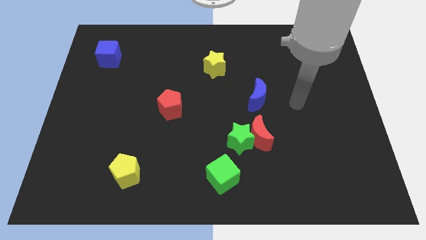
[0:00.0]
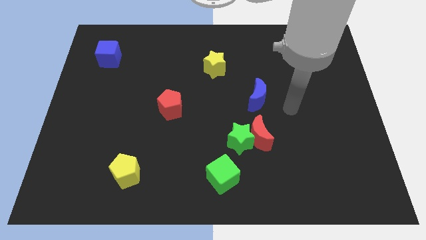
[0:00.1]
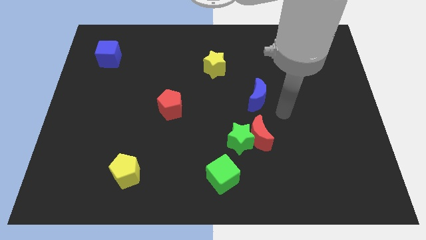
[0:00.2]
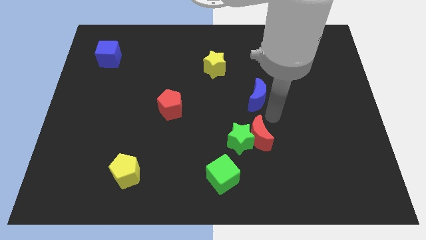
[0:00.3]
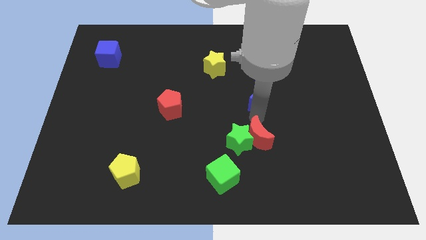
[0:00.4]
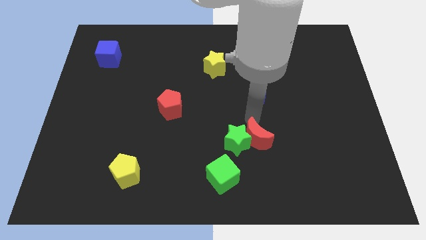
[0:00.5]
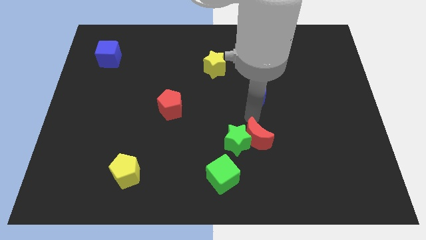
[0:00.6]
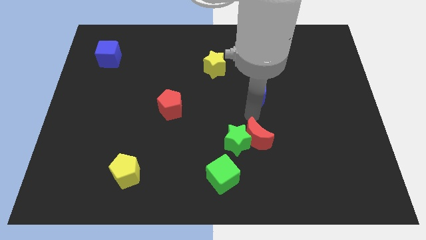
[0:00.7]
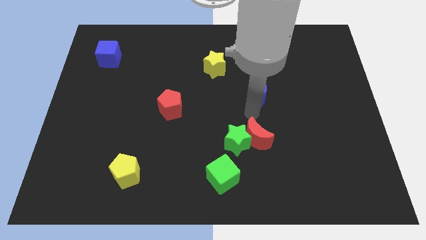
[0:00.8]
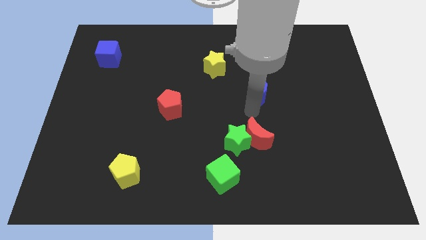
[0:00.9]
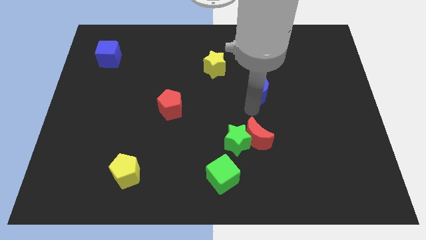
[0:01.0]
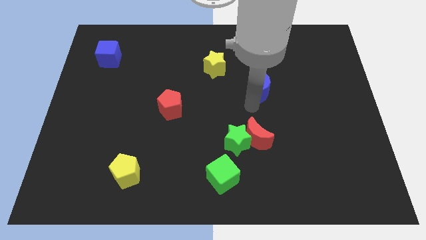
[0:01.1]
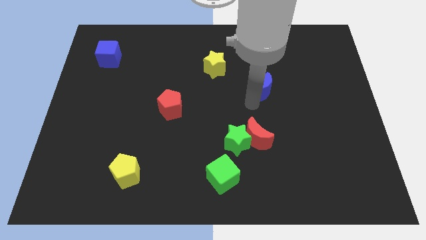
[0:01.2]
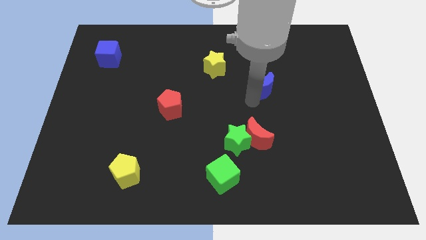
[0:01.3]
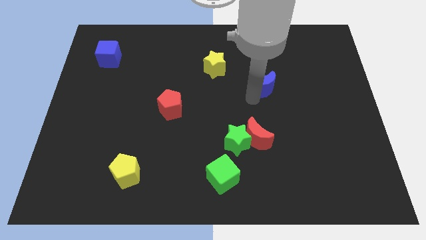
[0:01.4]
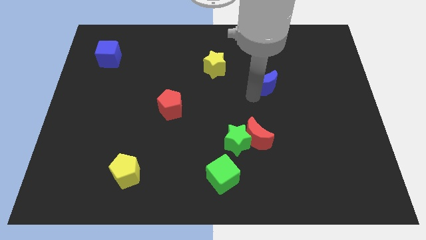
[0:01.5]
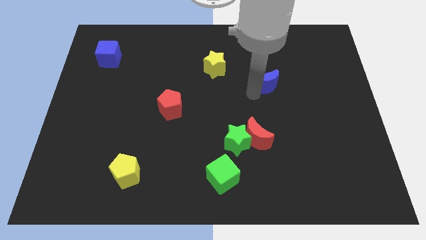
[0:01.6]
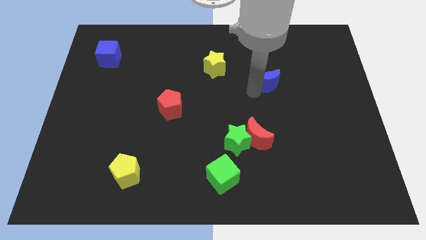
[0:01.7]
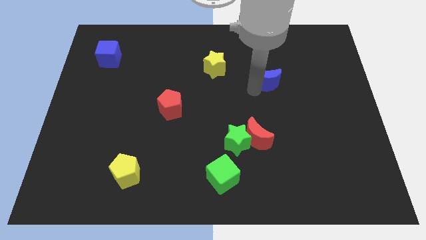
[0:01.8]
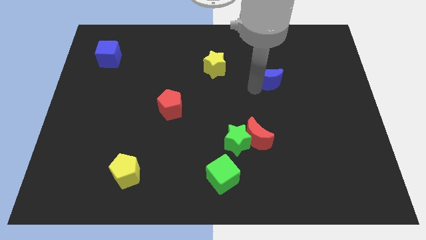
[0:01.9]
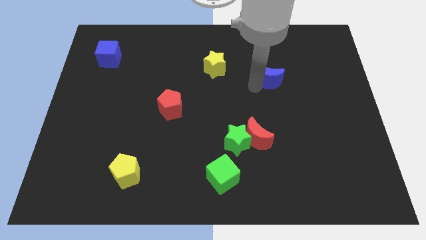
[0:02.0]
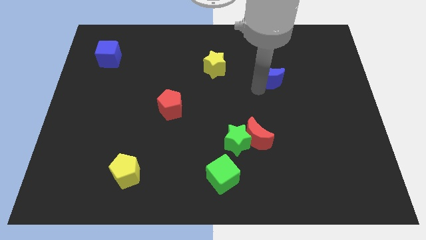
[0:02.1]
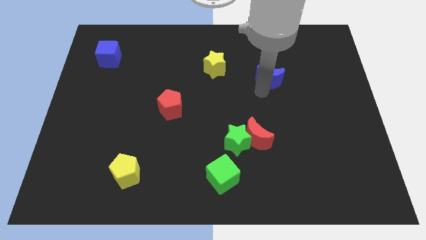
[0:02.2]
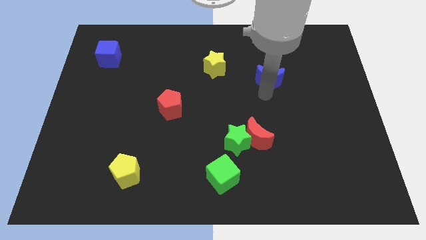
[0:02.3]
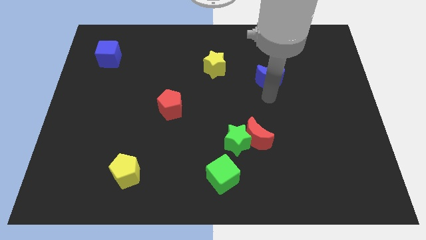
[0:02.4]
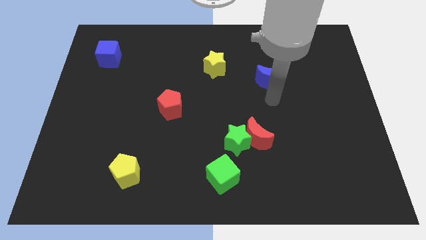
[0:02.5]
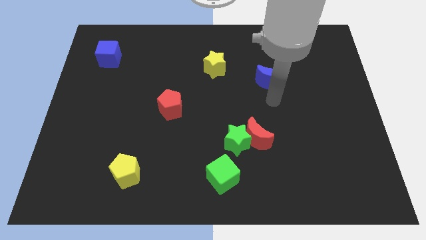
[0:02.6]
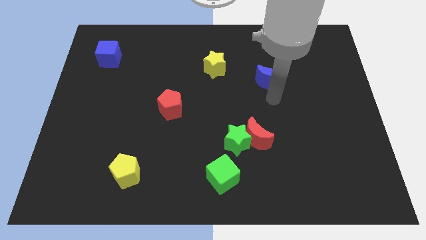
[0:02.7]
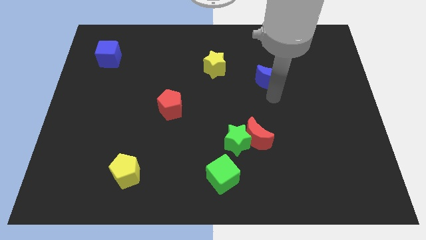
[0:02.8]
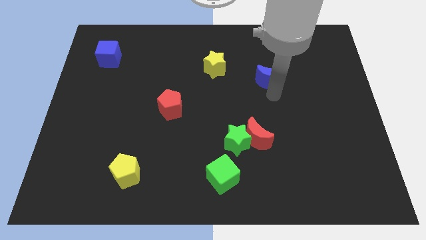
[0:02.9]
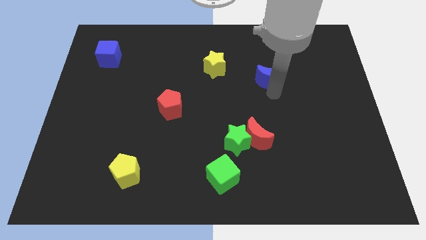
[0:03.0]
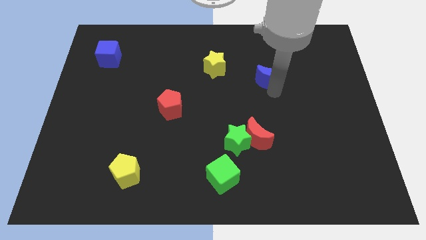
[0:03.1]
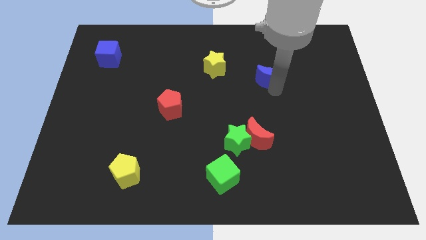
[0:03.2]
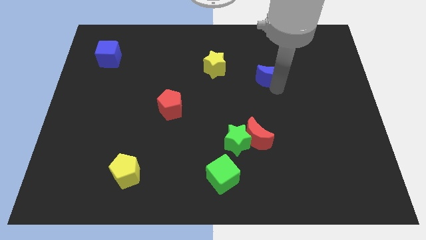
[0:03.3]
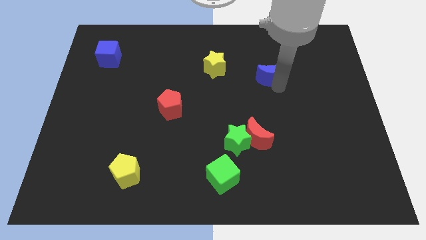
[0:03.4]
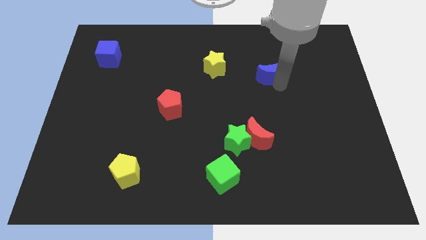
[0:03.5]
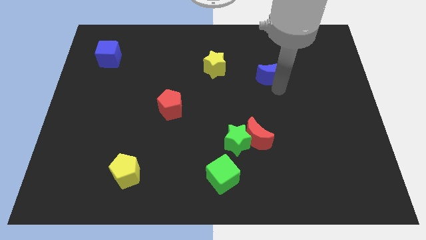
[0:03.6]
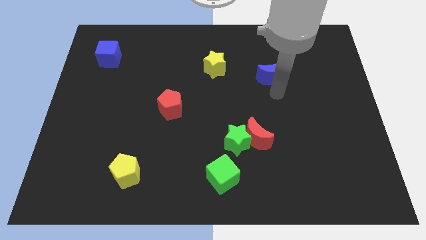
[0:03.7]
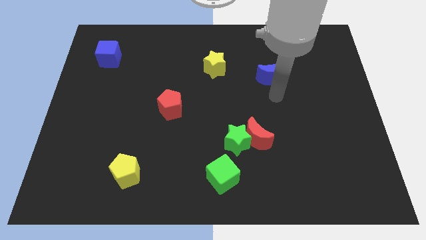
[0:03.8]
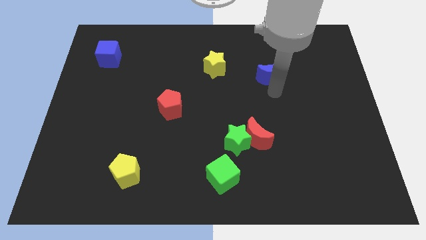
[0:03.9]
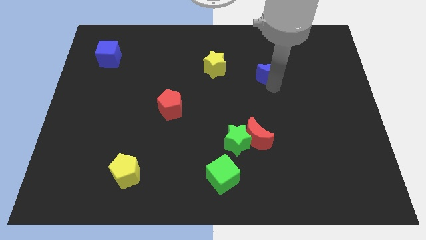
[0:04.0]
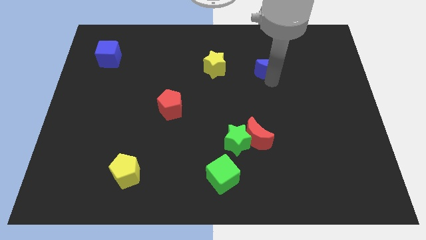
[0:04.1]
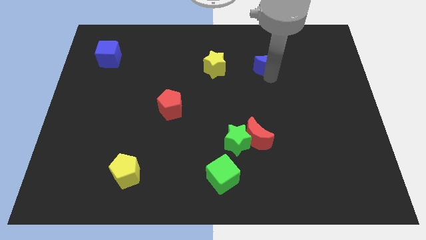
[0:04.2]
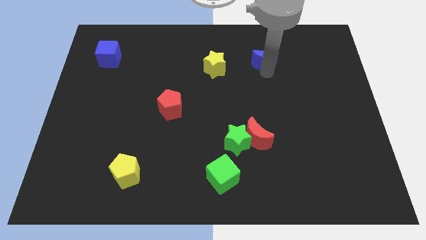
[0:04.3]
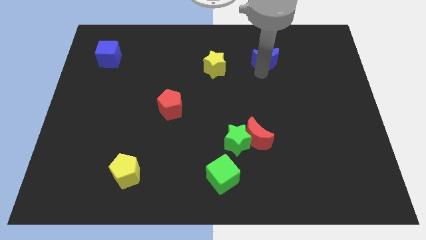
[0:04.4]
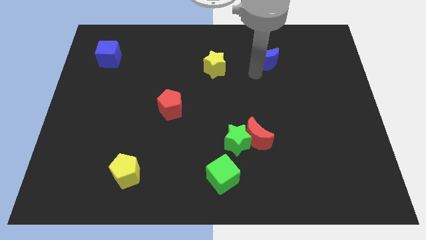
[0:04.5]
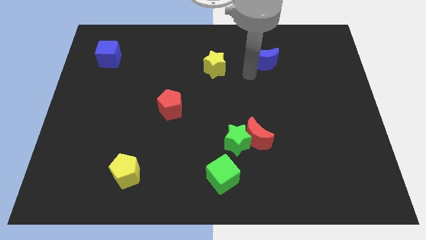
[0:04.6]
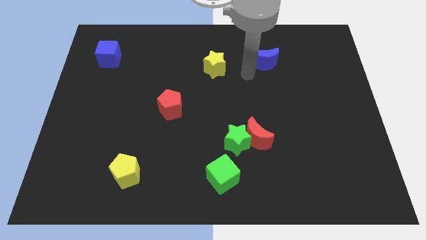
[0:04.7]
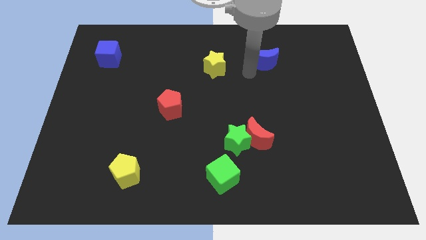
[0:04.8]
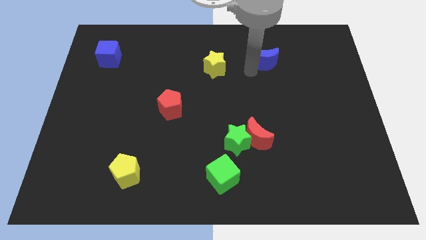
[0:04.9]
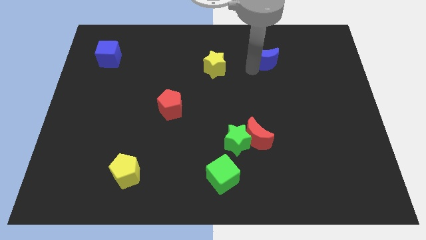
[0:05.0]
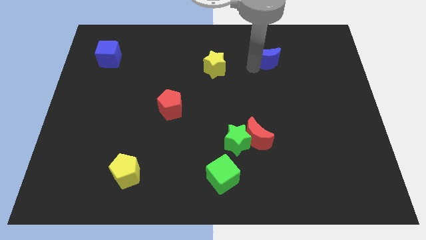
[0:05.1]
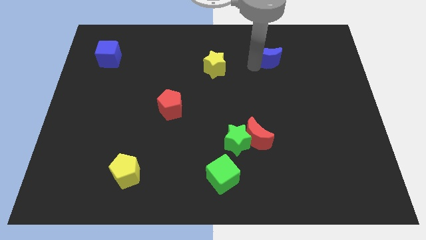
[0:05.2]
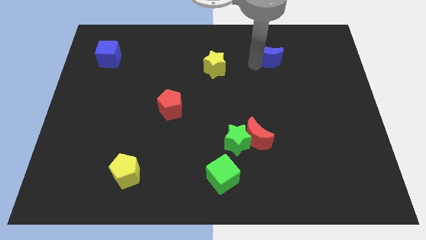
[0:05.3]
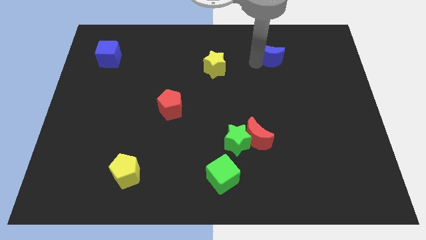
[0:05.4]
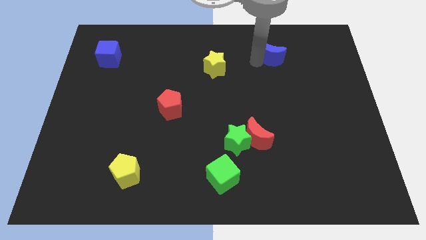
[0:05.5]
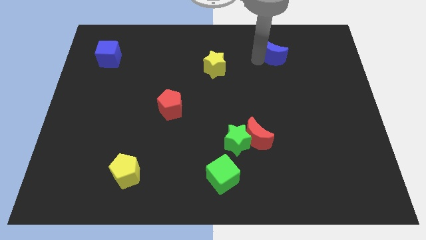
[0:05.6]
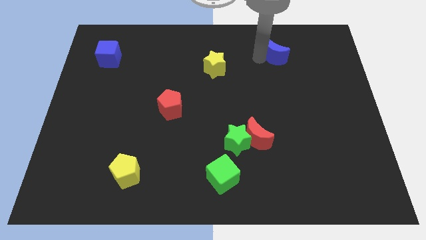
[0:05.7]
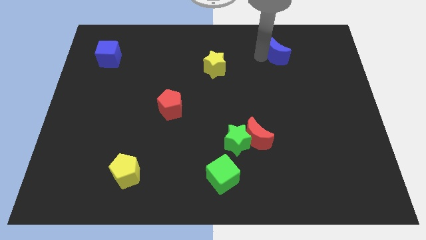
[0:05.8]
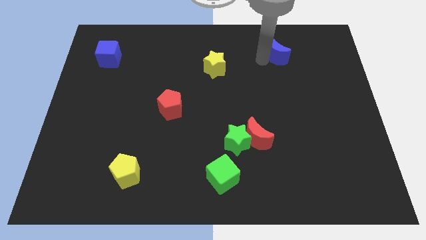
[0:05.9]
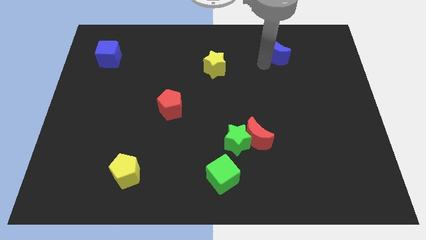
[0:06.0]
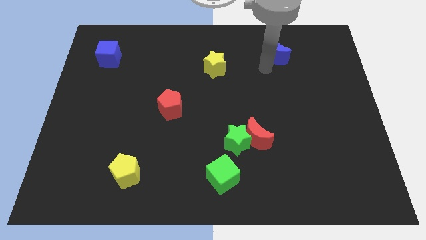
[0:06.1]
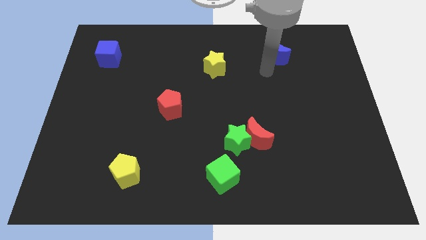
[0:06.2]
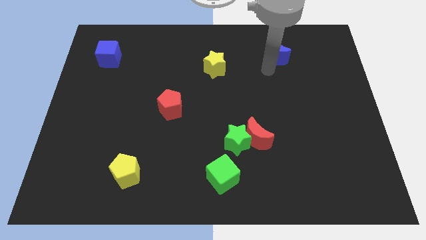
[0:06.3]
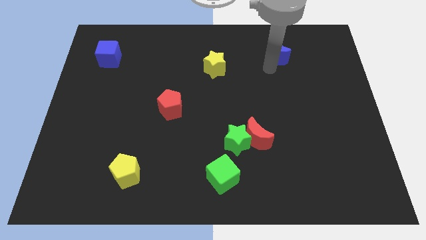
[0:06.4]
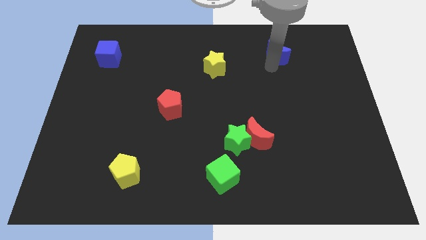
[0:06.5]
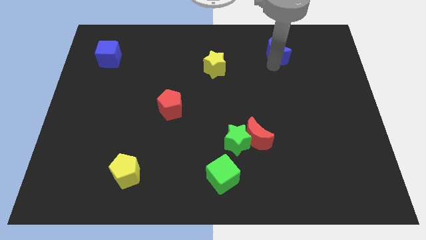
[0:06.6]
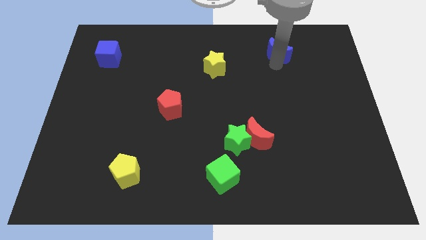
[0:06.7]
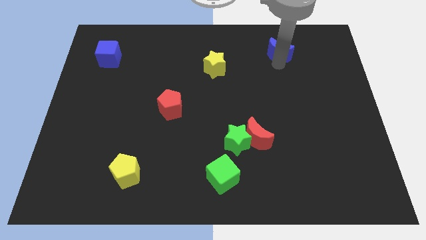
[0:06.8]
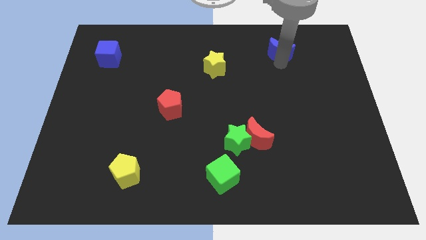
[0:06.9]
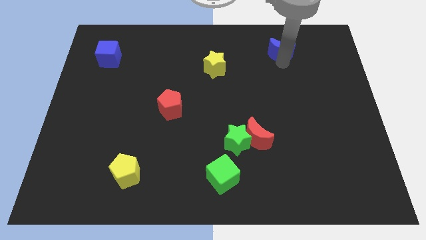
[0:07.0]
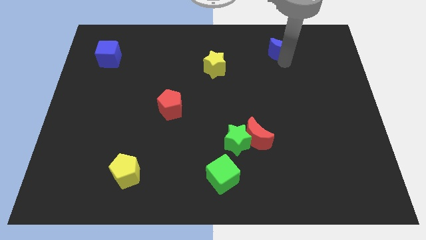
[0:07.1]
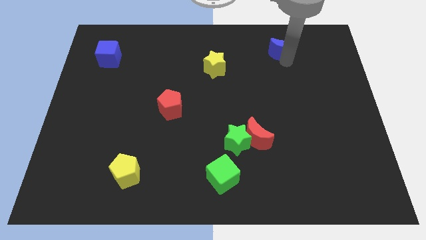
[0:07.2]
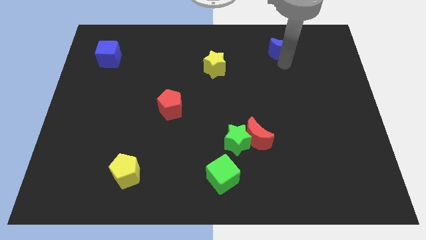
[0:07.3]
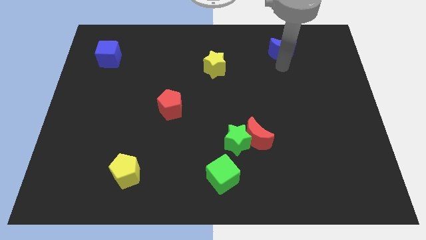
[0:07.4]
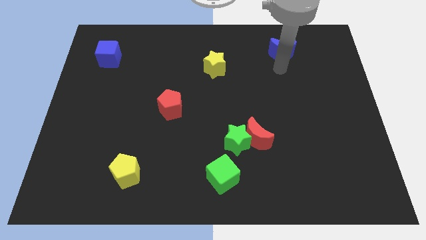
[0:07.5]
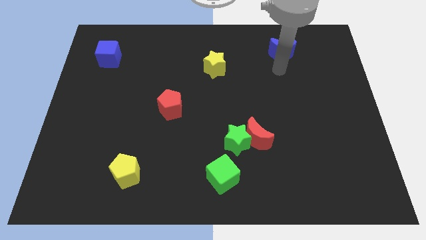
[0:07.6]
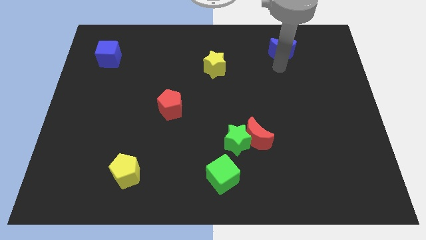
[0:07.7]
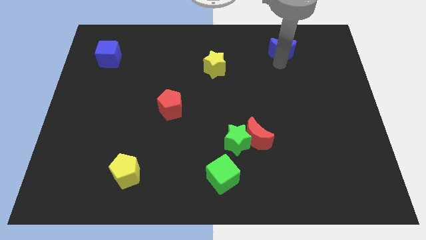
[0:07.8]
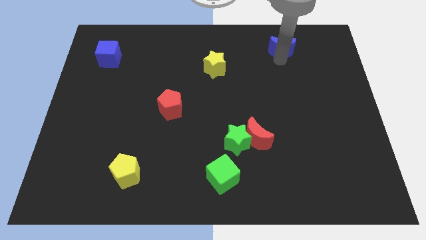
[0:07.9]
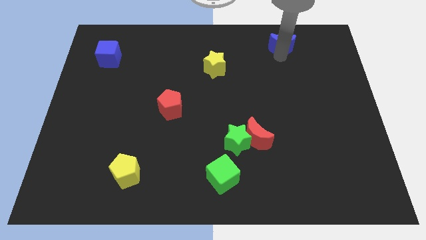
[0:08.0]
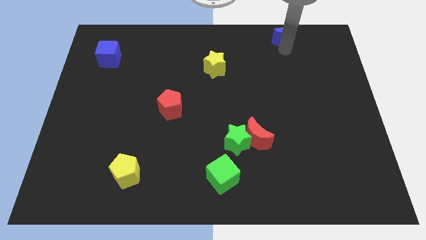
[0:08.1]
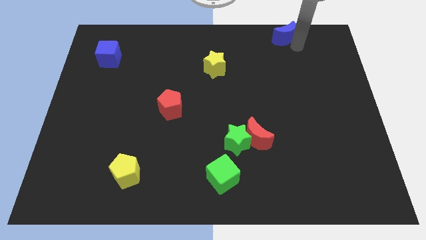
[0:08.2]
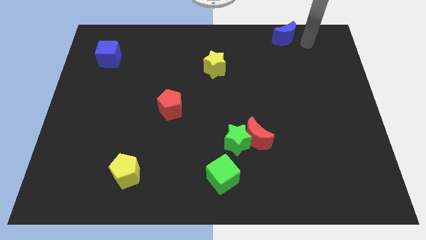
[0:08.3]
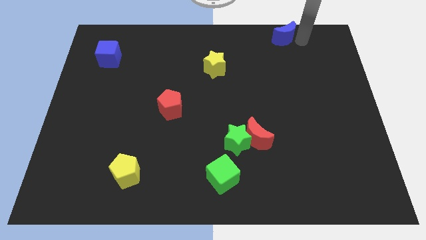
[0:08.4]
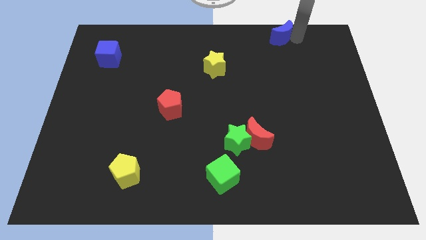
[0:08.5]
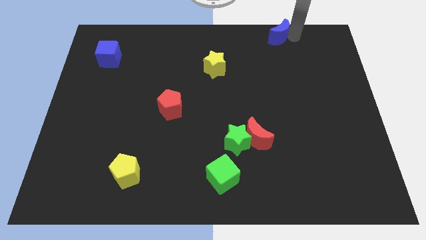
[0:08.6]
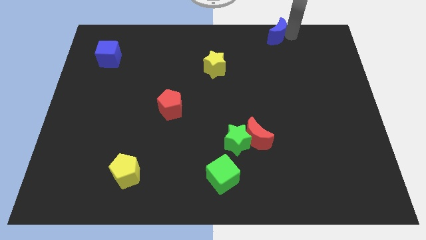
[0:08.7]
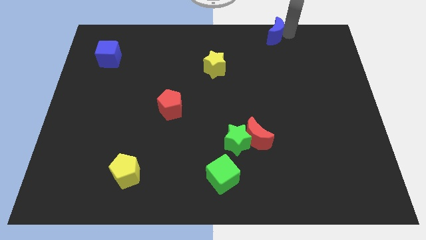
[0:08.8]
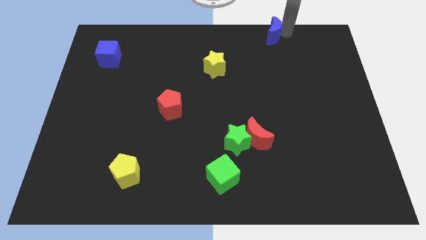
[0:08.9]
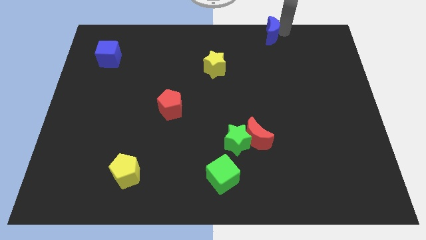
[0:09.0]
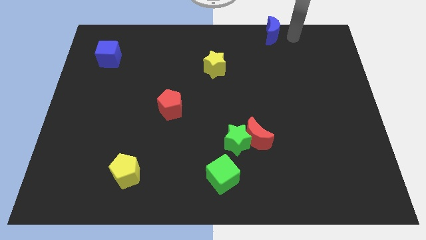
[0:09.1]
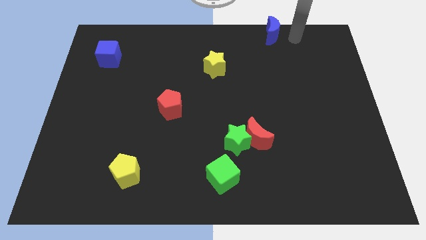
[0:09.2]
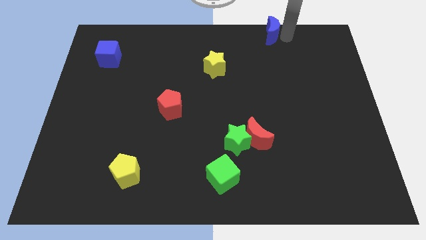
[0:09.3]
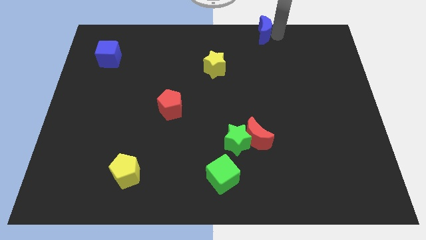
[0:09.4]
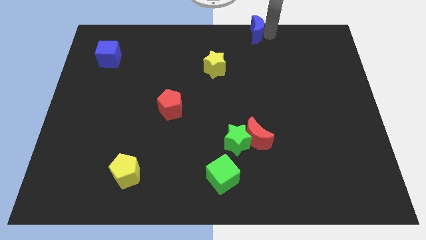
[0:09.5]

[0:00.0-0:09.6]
put the blue moon to the towards your base
